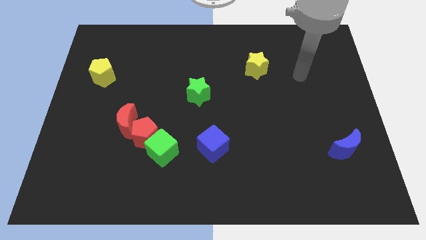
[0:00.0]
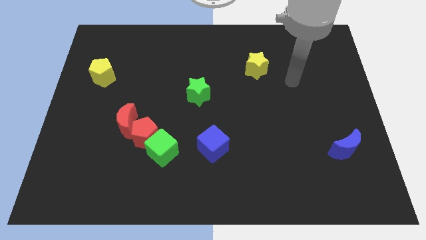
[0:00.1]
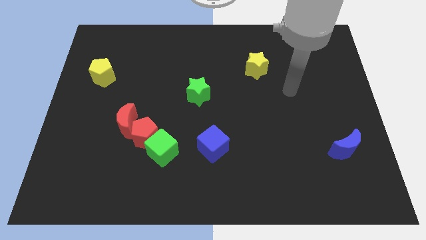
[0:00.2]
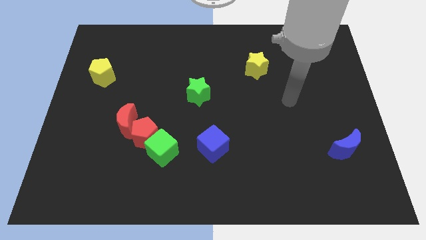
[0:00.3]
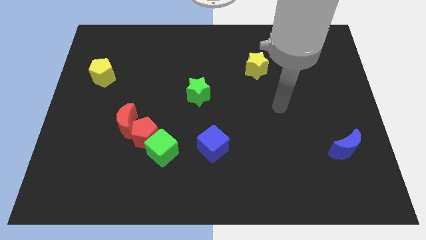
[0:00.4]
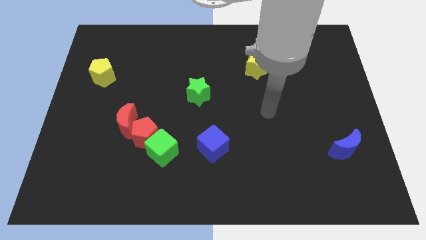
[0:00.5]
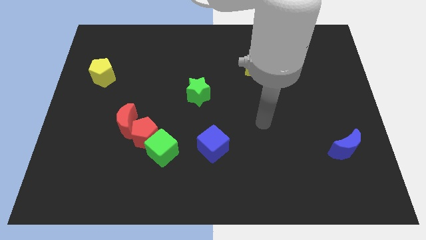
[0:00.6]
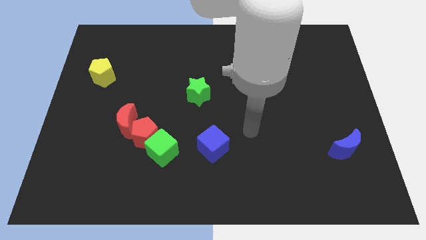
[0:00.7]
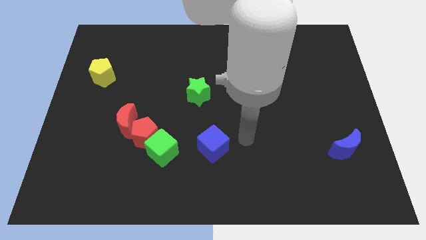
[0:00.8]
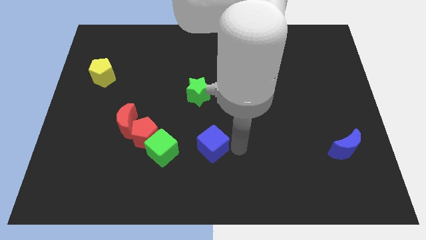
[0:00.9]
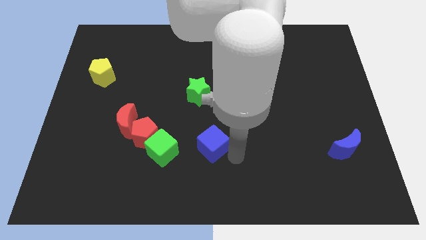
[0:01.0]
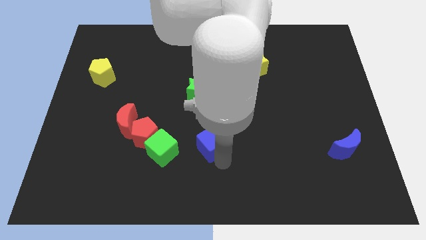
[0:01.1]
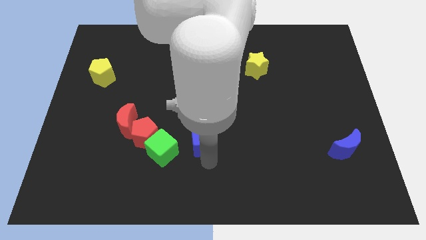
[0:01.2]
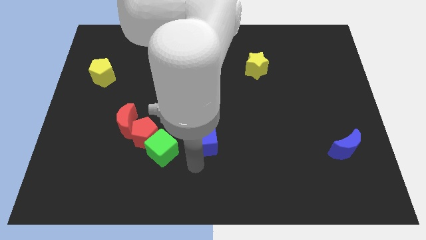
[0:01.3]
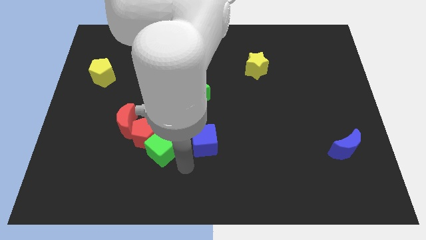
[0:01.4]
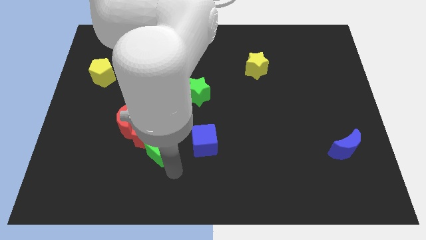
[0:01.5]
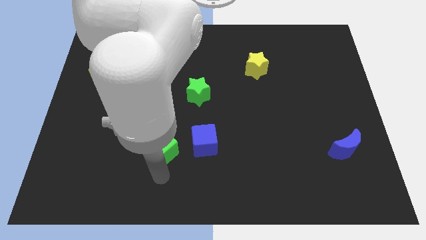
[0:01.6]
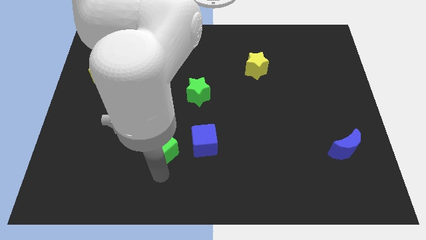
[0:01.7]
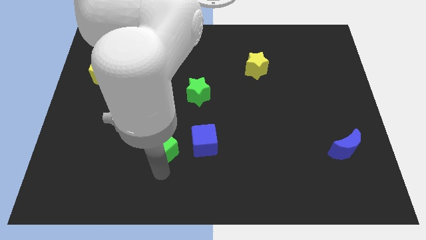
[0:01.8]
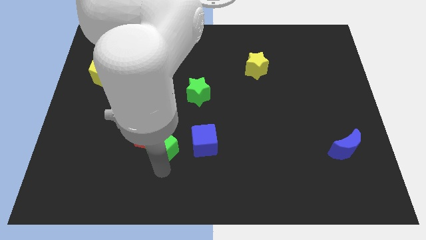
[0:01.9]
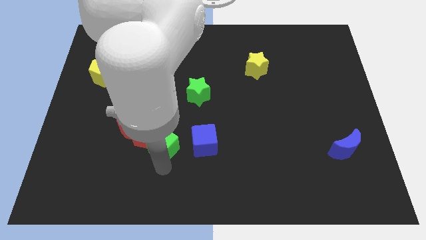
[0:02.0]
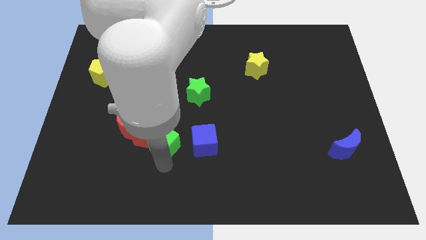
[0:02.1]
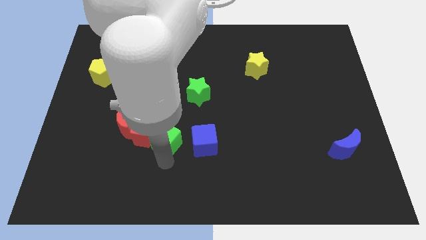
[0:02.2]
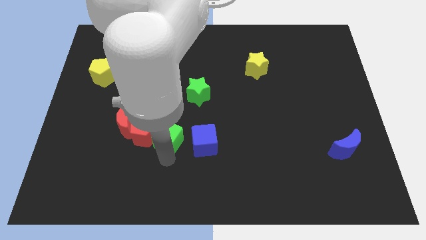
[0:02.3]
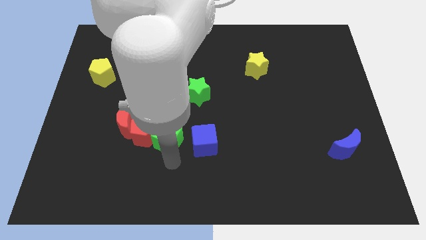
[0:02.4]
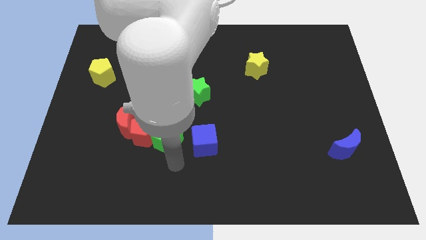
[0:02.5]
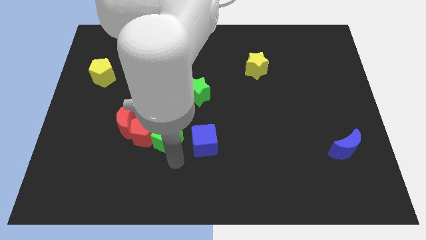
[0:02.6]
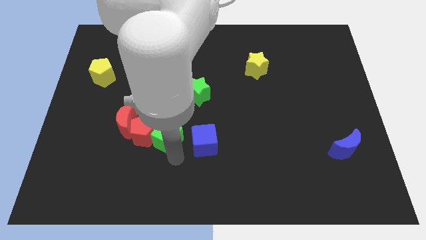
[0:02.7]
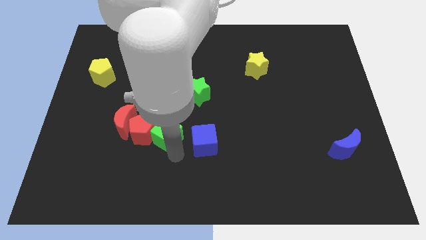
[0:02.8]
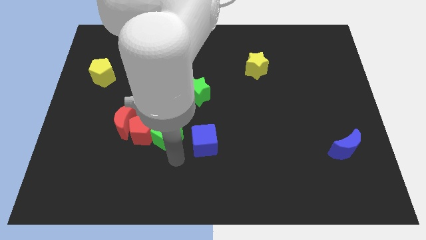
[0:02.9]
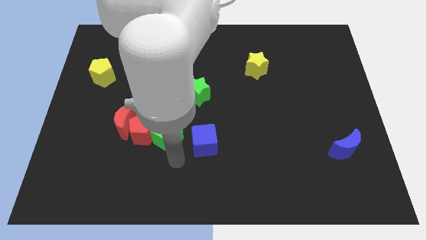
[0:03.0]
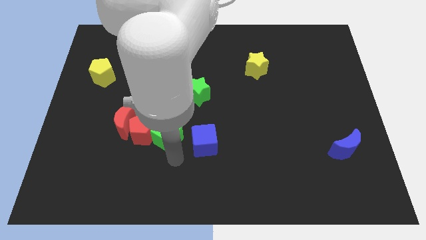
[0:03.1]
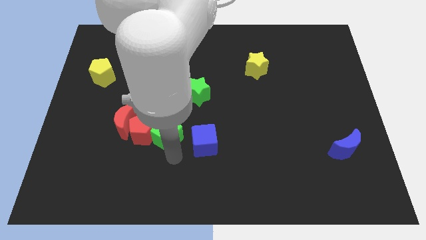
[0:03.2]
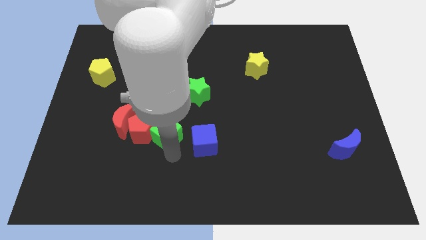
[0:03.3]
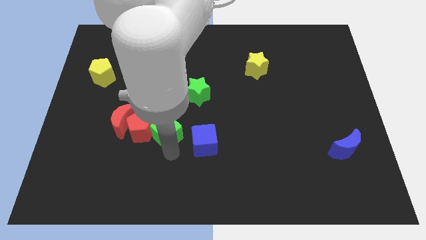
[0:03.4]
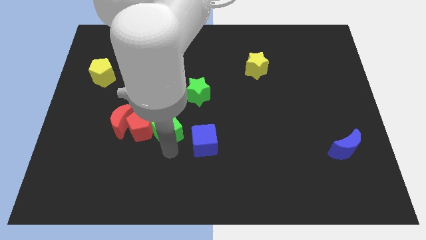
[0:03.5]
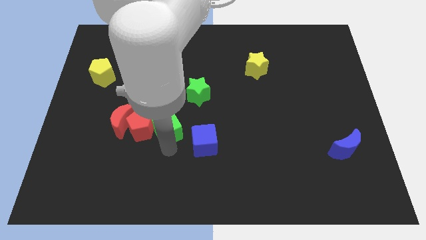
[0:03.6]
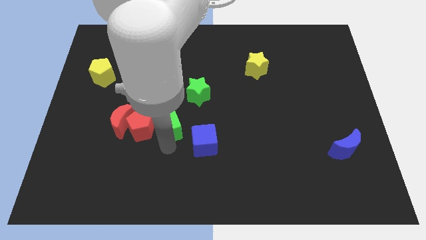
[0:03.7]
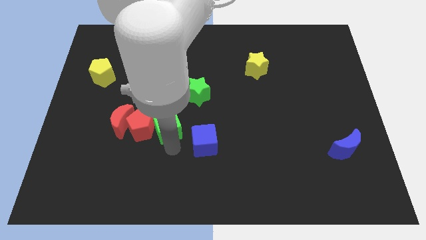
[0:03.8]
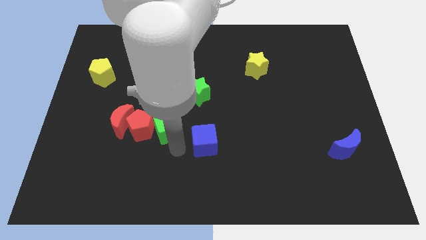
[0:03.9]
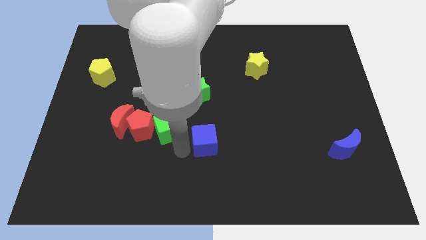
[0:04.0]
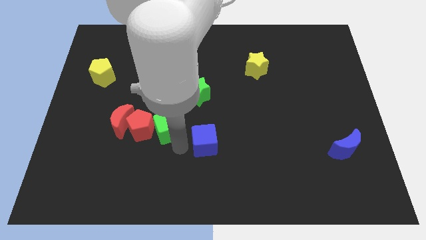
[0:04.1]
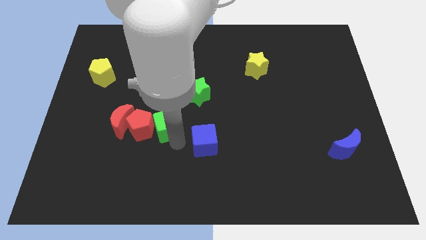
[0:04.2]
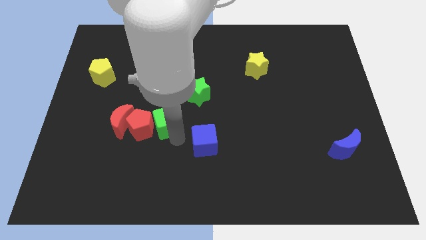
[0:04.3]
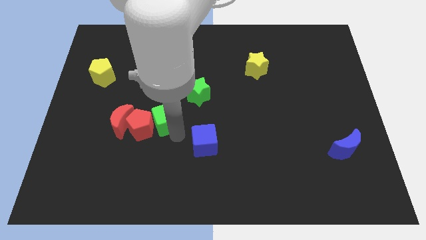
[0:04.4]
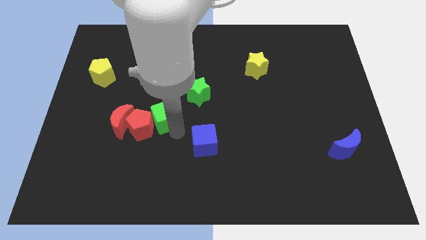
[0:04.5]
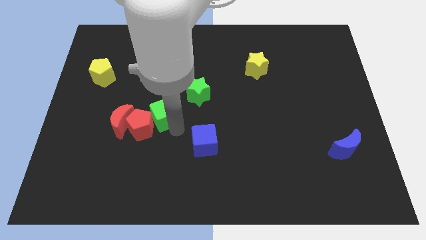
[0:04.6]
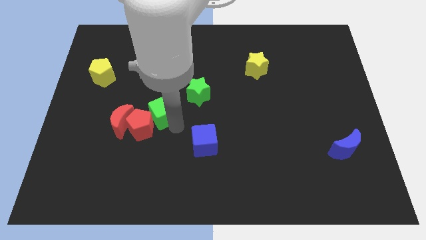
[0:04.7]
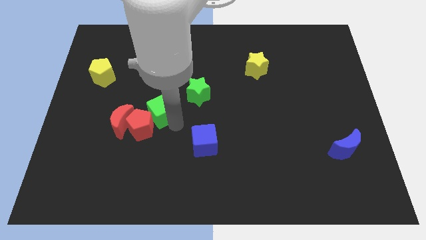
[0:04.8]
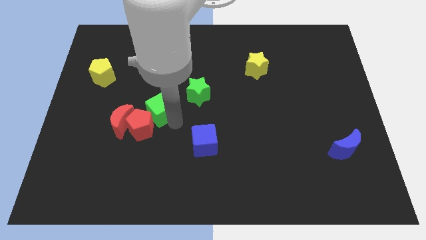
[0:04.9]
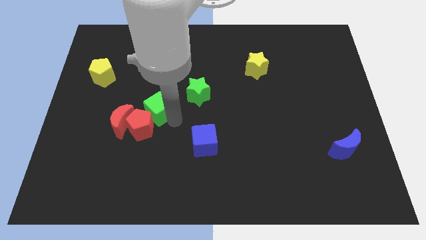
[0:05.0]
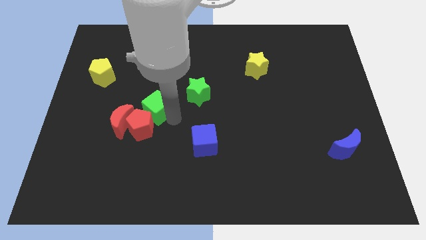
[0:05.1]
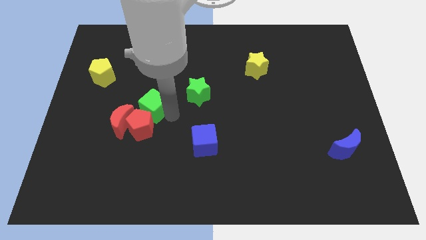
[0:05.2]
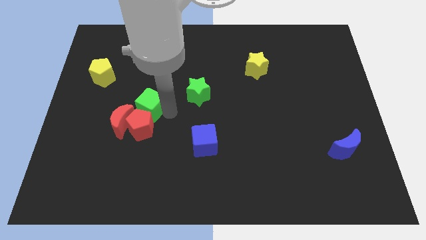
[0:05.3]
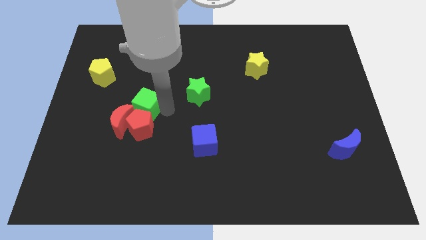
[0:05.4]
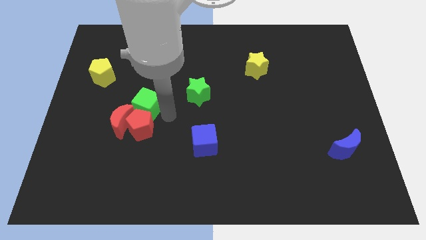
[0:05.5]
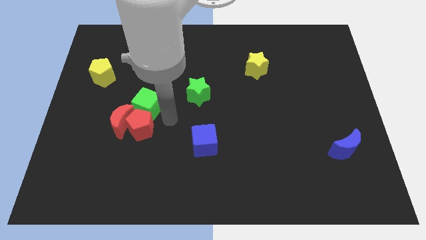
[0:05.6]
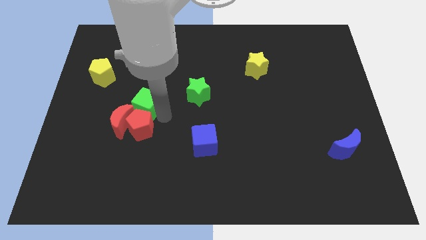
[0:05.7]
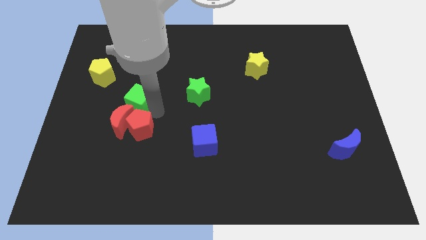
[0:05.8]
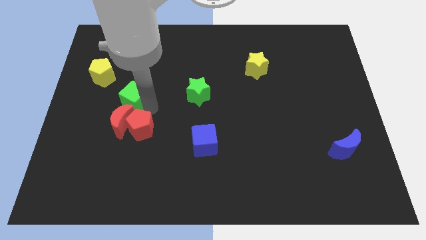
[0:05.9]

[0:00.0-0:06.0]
slide the green cube diagonally down and to the right of the yellow pentagon

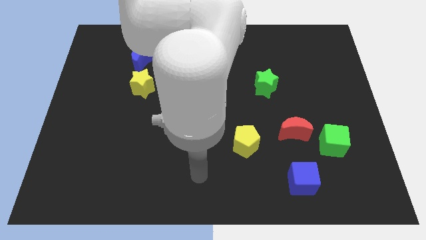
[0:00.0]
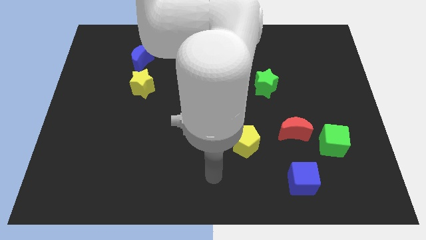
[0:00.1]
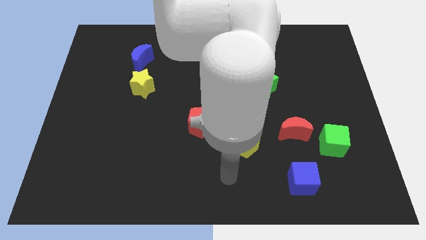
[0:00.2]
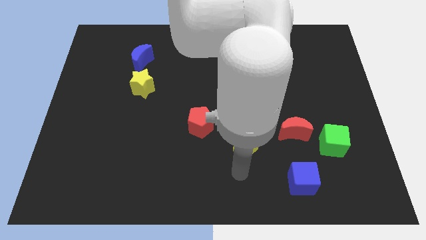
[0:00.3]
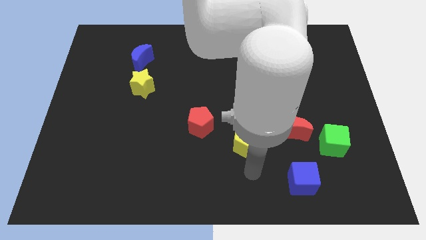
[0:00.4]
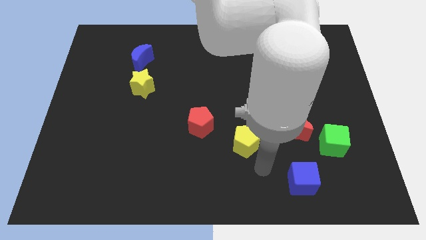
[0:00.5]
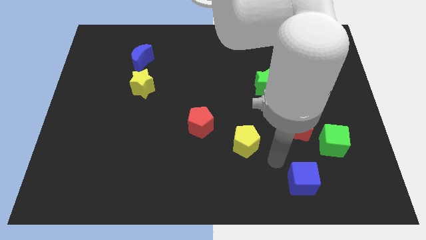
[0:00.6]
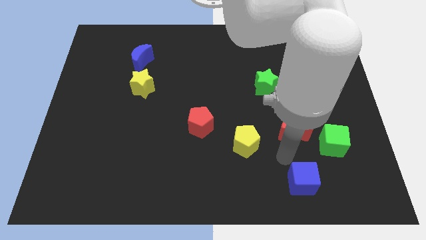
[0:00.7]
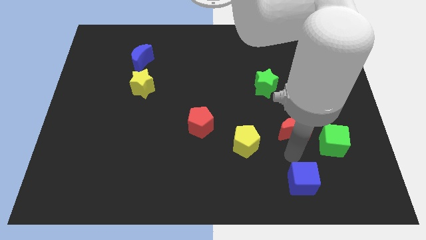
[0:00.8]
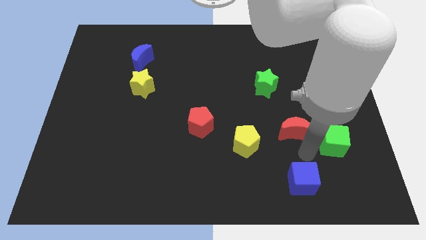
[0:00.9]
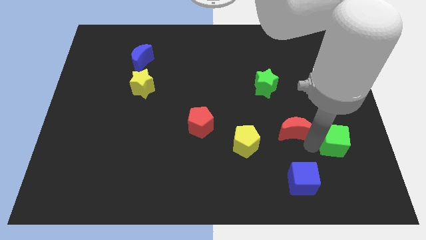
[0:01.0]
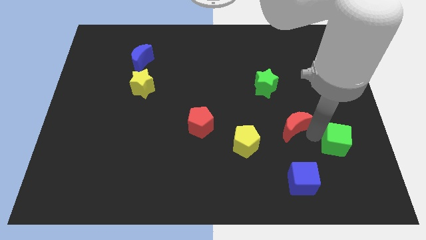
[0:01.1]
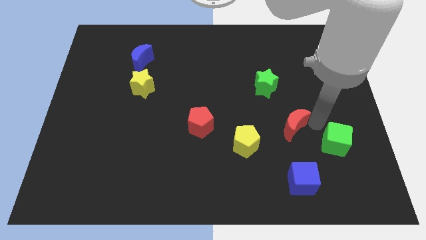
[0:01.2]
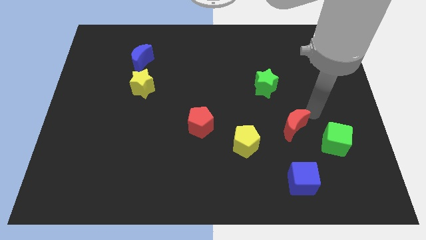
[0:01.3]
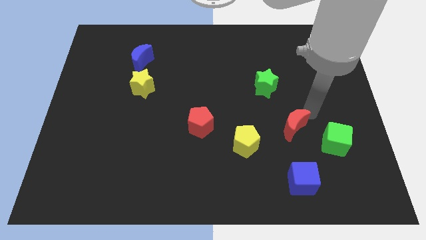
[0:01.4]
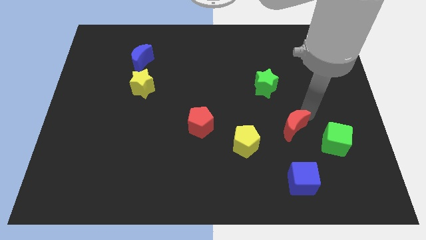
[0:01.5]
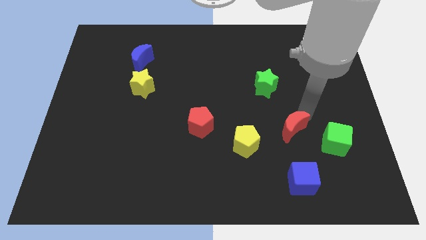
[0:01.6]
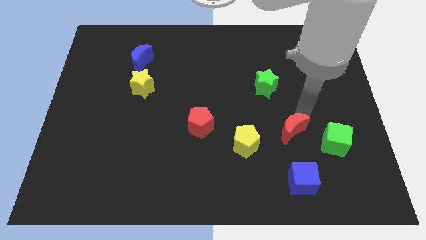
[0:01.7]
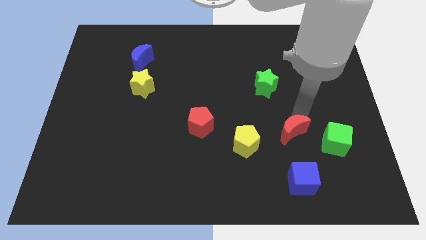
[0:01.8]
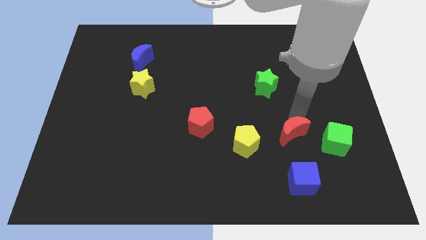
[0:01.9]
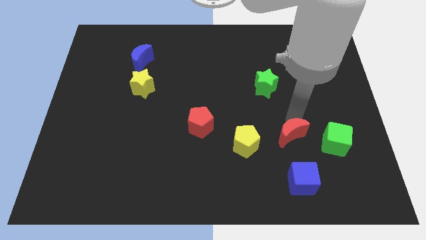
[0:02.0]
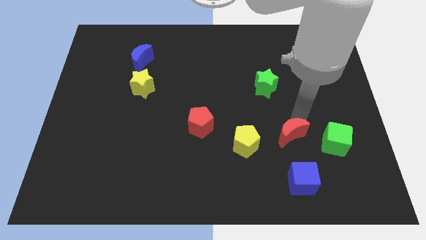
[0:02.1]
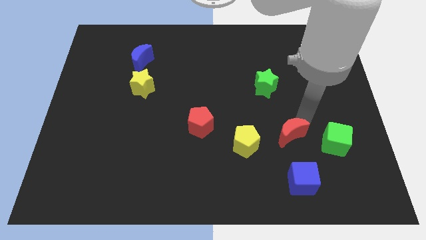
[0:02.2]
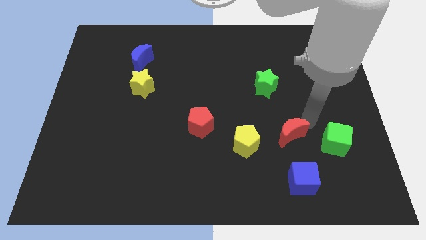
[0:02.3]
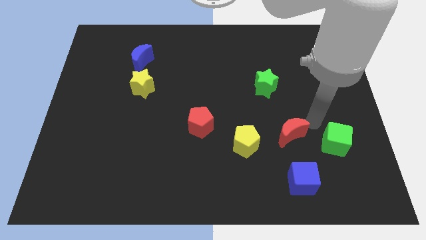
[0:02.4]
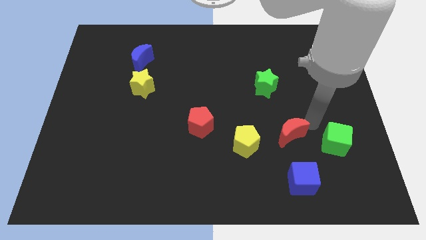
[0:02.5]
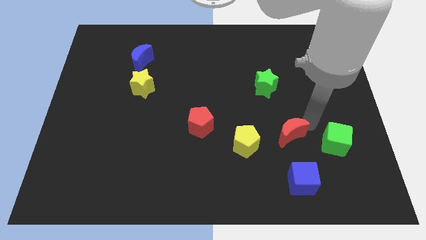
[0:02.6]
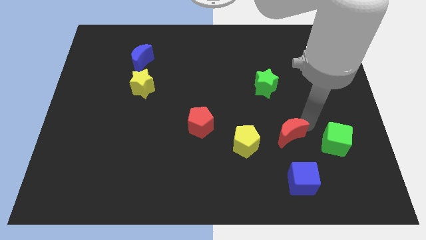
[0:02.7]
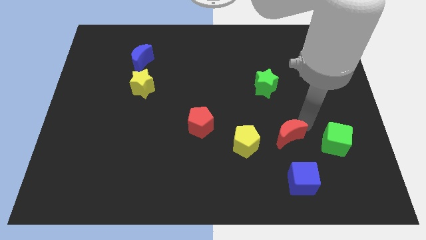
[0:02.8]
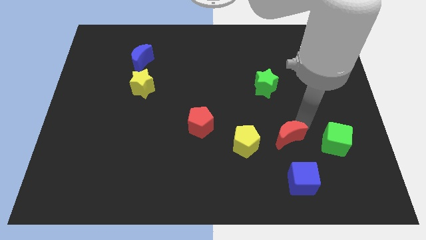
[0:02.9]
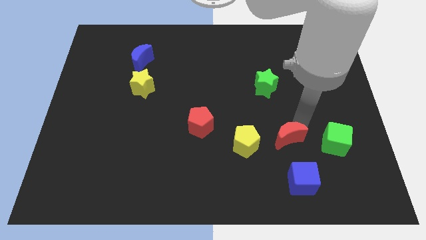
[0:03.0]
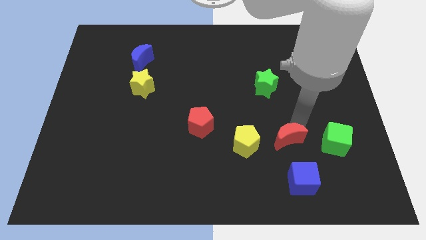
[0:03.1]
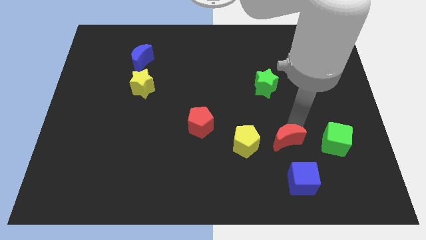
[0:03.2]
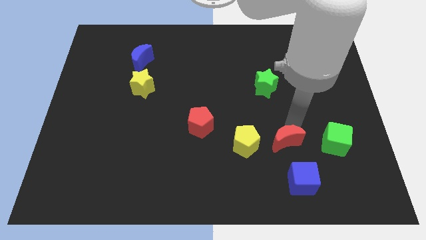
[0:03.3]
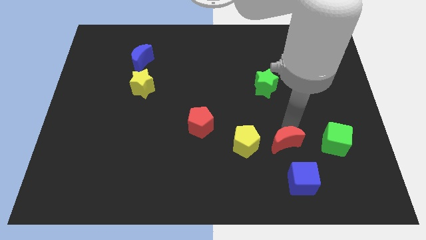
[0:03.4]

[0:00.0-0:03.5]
push the red moon to the top left side of the blue cube
